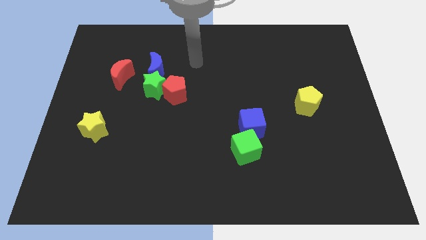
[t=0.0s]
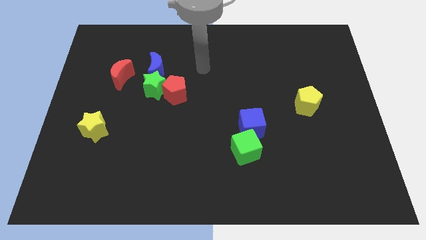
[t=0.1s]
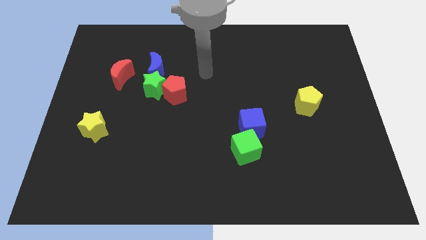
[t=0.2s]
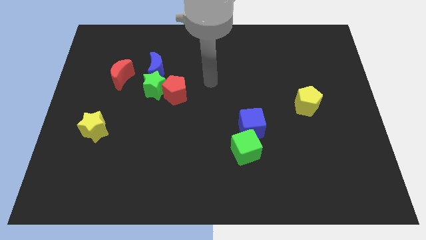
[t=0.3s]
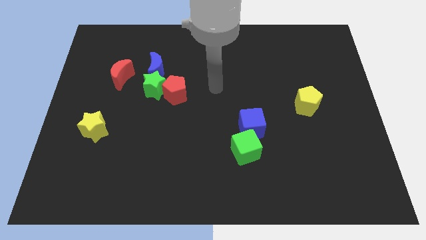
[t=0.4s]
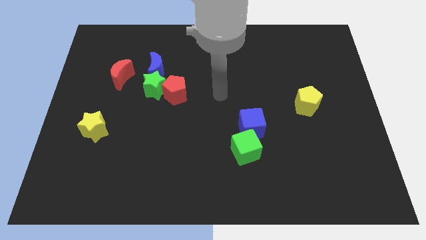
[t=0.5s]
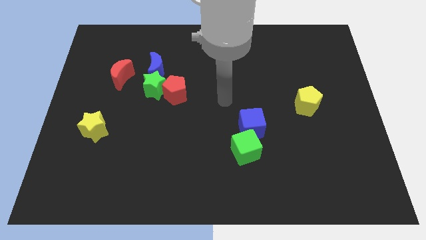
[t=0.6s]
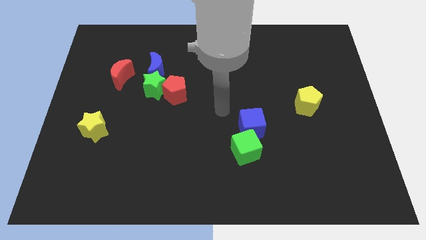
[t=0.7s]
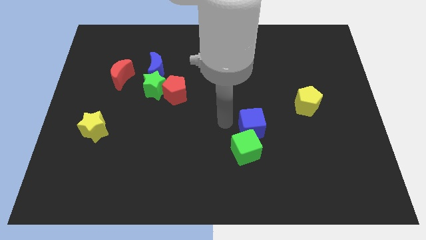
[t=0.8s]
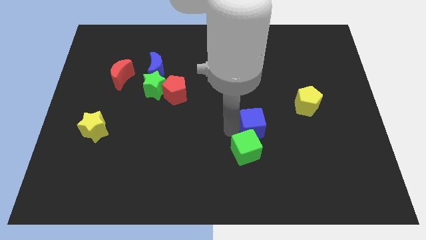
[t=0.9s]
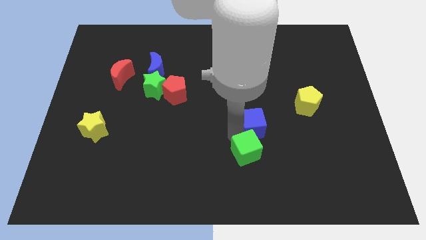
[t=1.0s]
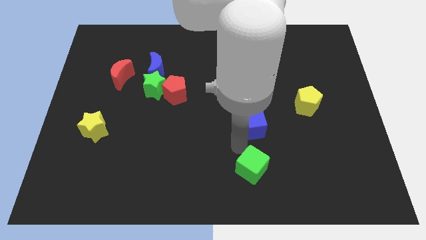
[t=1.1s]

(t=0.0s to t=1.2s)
separate the blue cube from the green cube

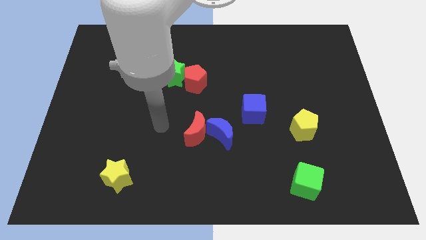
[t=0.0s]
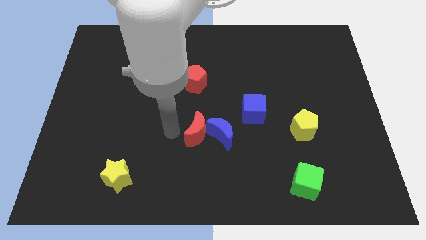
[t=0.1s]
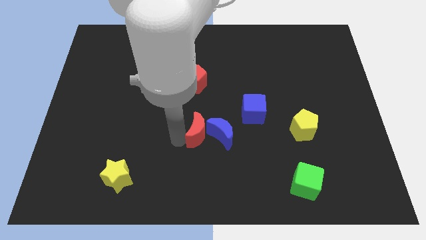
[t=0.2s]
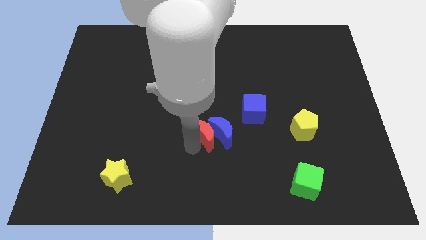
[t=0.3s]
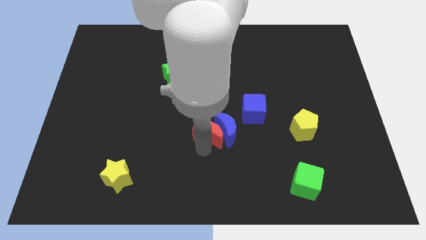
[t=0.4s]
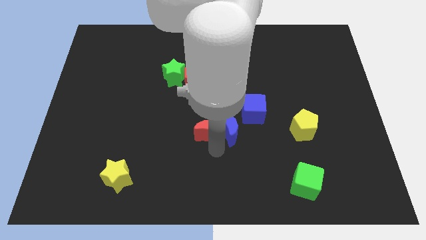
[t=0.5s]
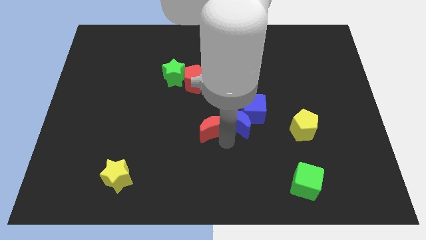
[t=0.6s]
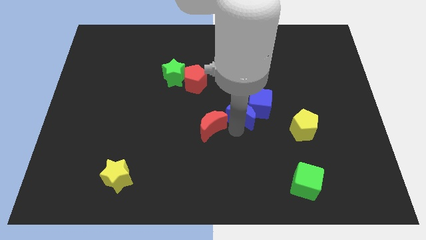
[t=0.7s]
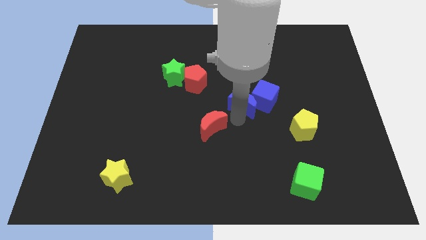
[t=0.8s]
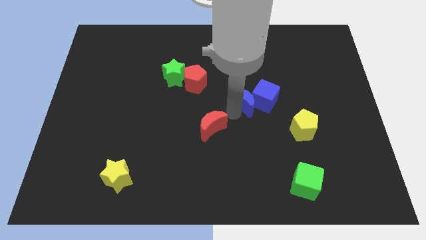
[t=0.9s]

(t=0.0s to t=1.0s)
separate the red moon from the blue moon

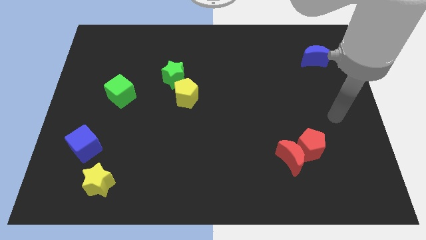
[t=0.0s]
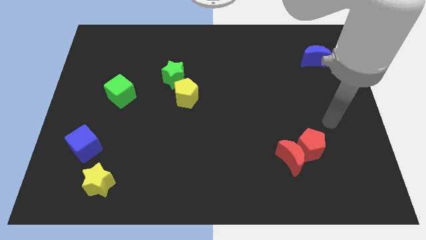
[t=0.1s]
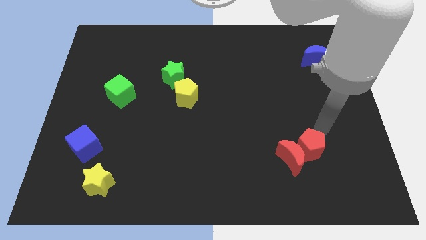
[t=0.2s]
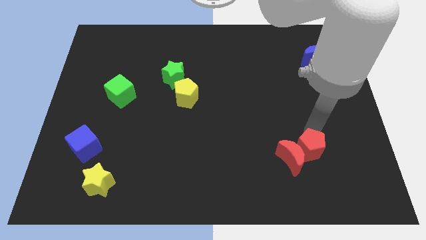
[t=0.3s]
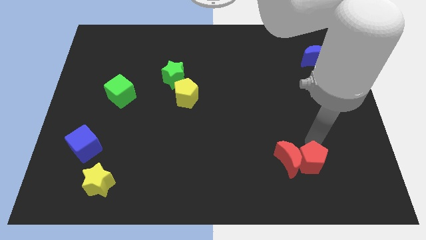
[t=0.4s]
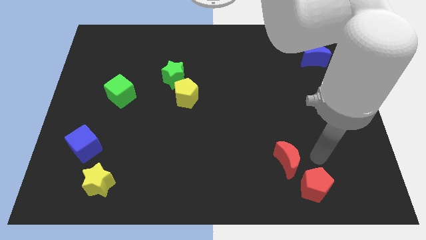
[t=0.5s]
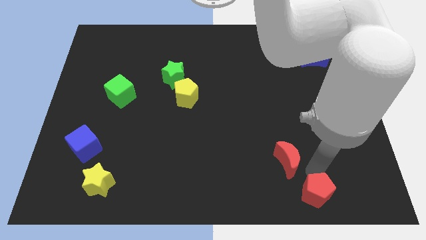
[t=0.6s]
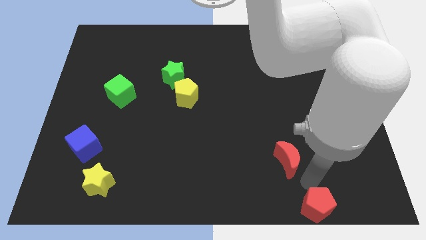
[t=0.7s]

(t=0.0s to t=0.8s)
separate the red moon from the red pentagon

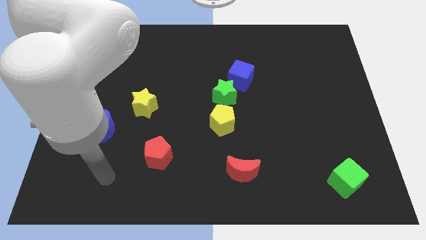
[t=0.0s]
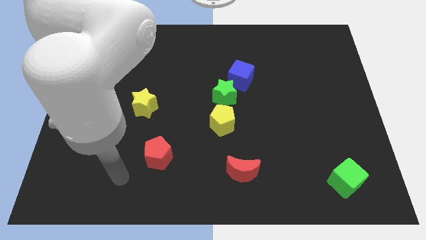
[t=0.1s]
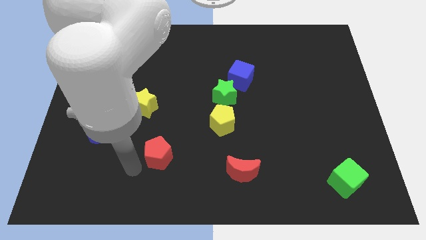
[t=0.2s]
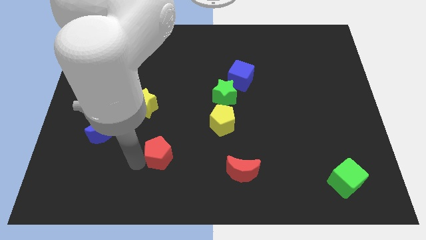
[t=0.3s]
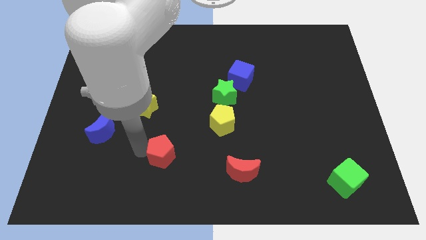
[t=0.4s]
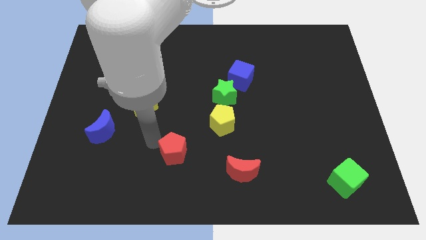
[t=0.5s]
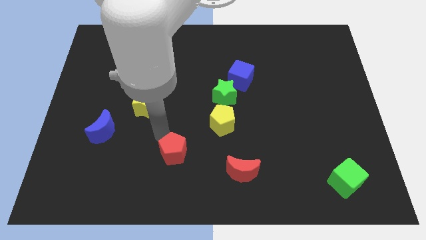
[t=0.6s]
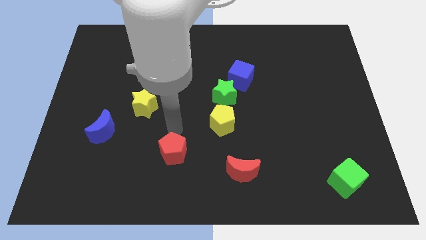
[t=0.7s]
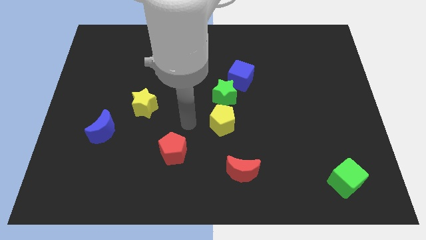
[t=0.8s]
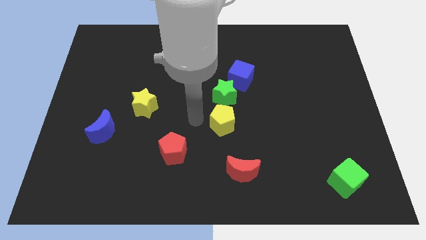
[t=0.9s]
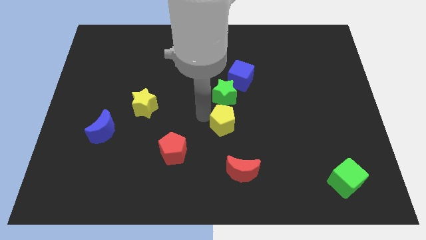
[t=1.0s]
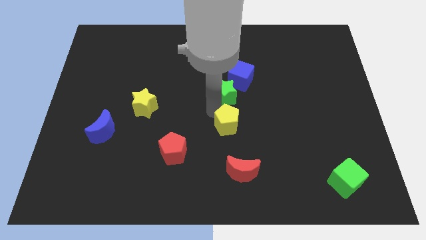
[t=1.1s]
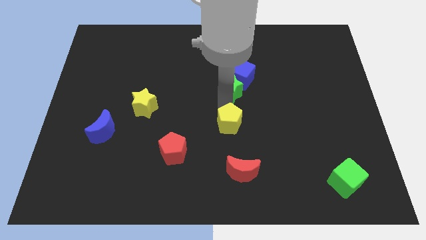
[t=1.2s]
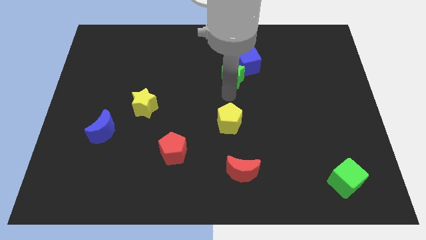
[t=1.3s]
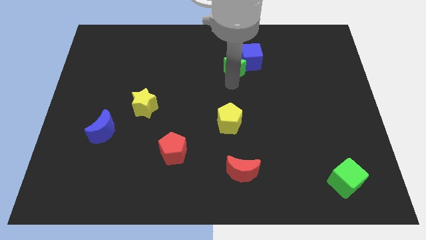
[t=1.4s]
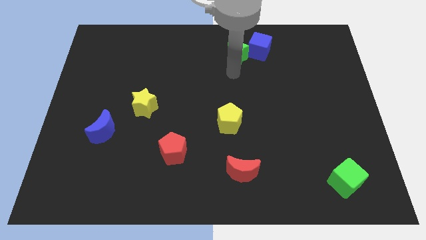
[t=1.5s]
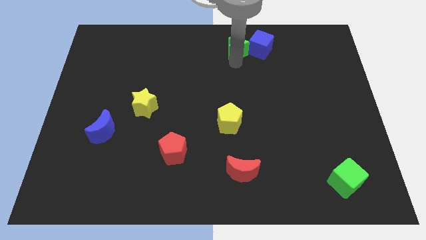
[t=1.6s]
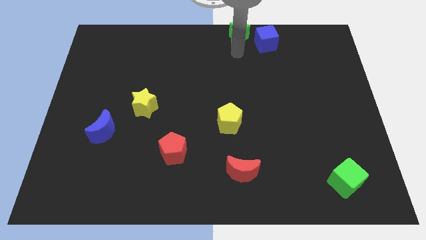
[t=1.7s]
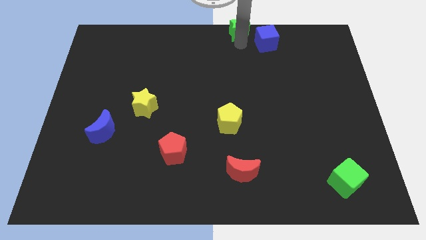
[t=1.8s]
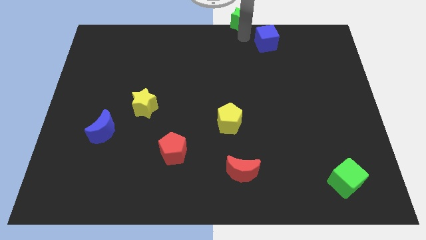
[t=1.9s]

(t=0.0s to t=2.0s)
separate the blue cube from the green star

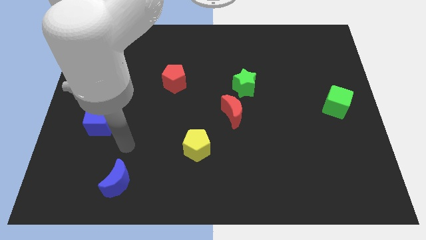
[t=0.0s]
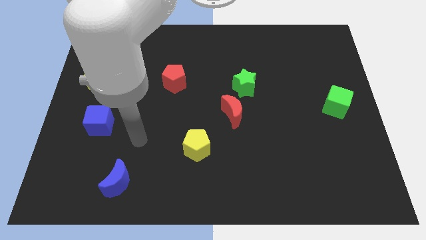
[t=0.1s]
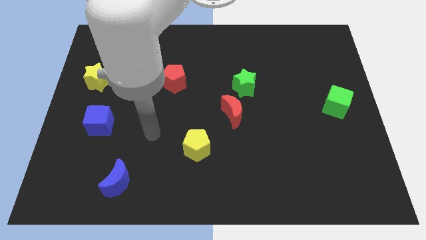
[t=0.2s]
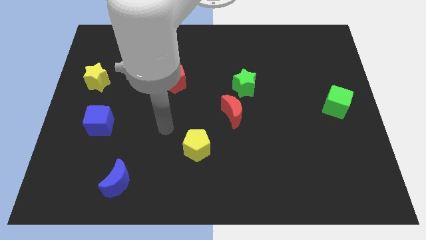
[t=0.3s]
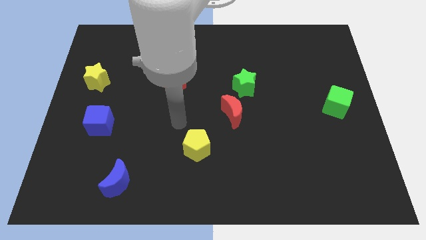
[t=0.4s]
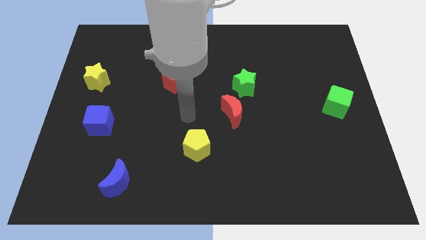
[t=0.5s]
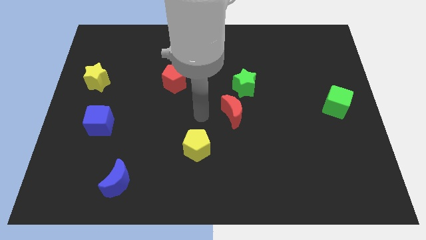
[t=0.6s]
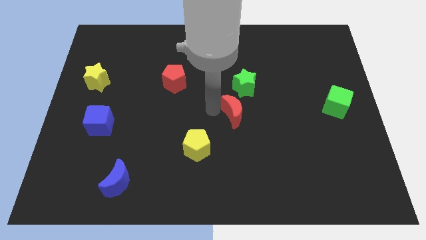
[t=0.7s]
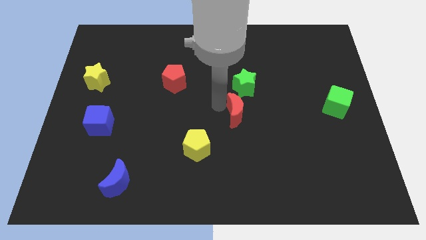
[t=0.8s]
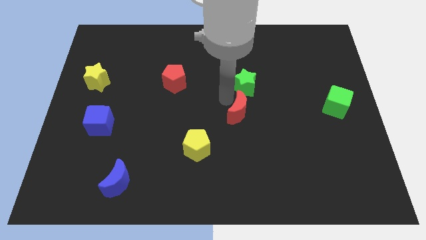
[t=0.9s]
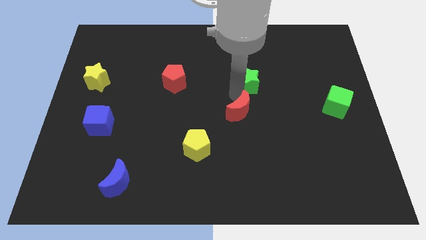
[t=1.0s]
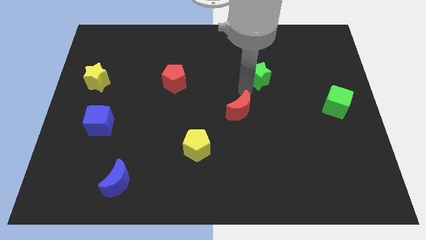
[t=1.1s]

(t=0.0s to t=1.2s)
pull the red moon apart from the green star

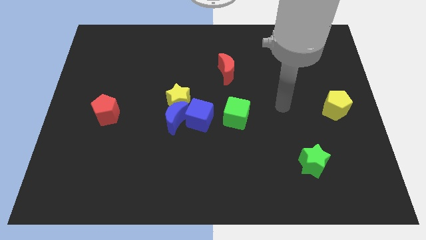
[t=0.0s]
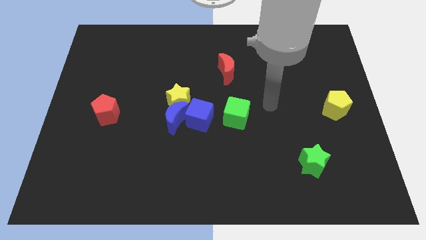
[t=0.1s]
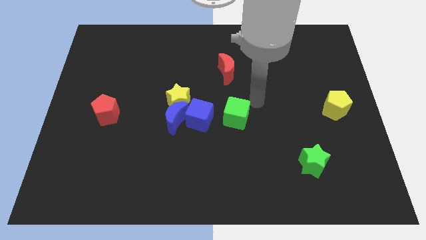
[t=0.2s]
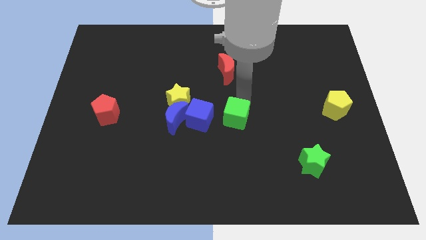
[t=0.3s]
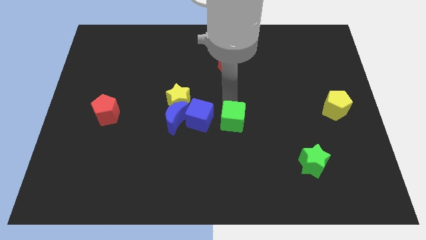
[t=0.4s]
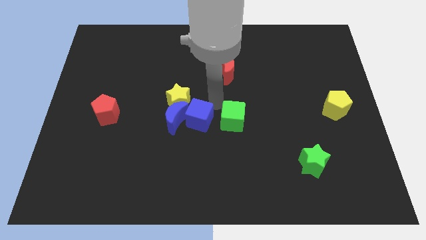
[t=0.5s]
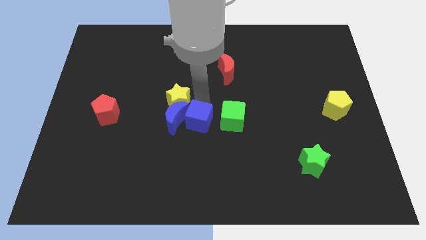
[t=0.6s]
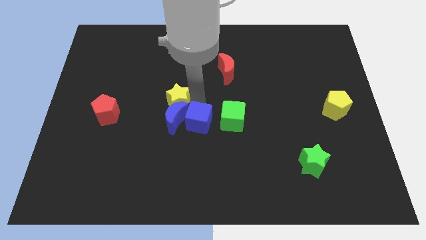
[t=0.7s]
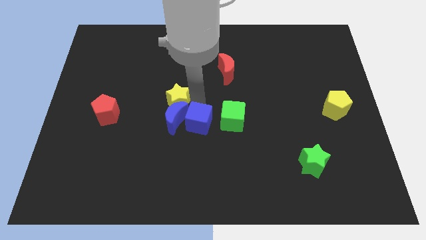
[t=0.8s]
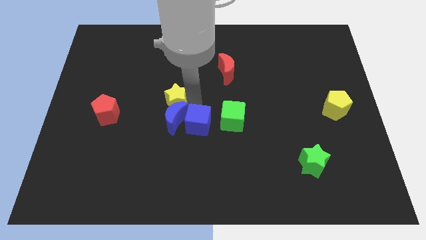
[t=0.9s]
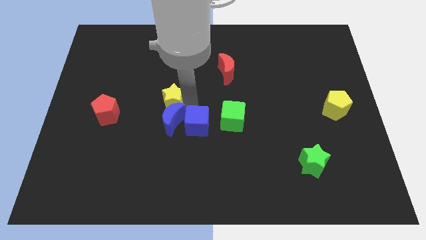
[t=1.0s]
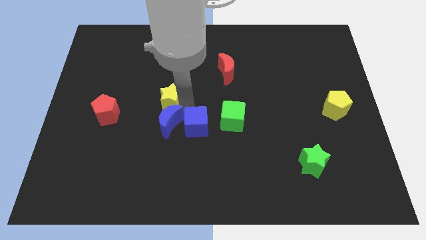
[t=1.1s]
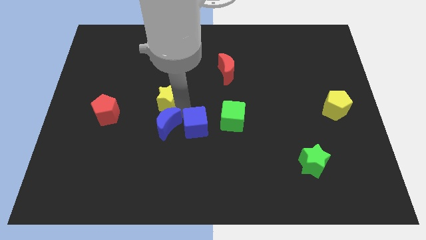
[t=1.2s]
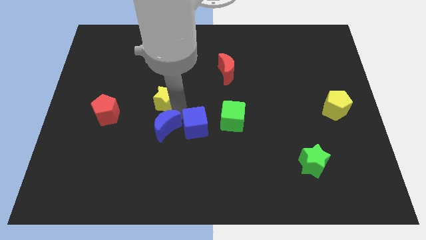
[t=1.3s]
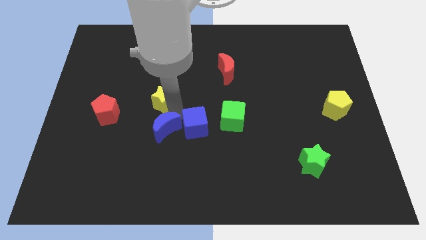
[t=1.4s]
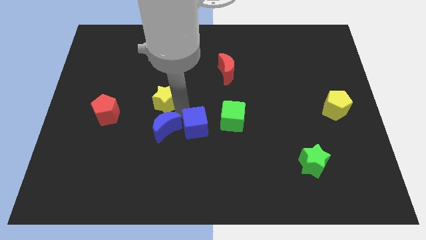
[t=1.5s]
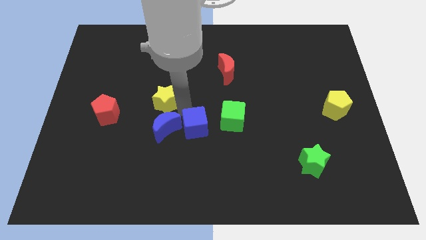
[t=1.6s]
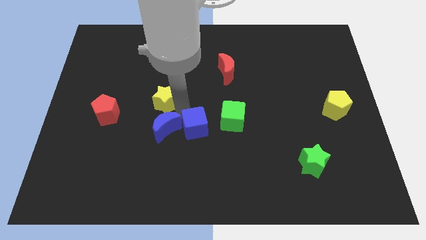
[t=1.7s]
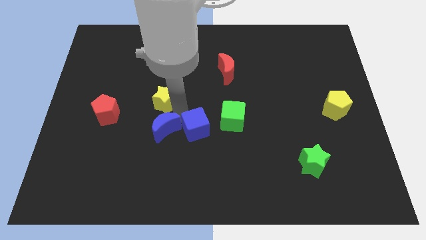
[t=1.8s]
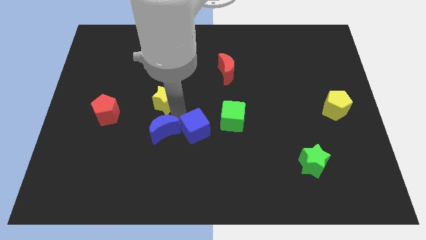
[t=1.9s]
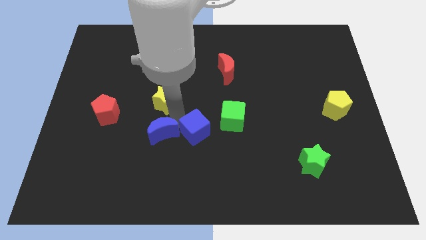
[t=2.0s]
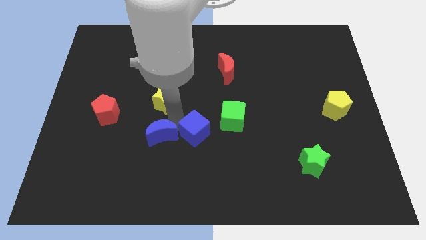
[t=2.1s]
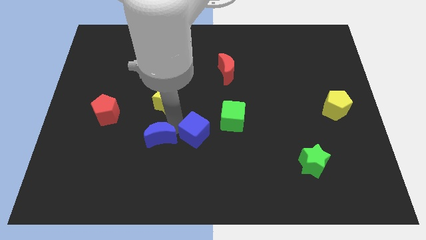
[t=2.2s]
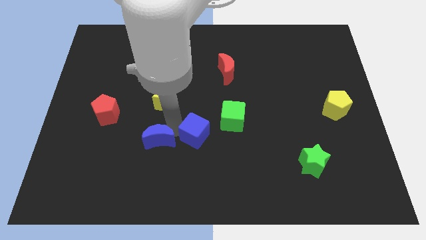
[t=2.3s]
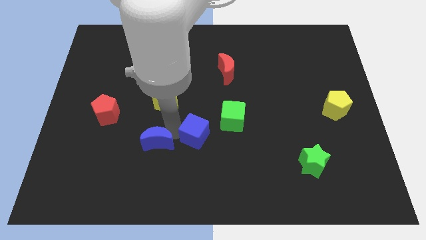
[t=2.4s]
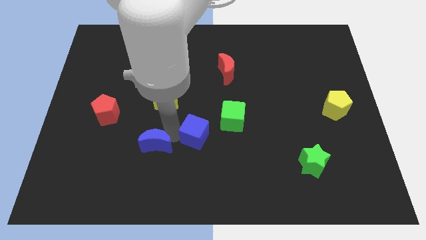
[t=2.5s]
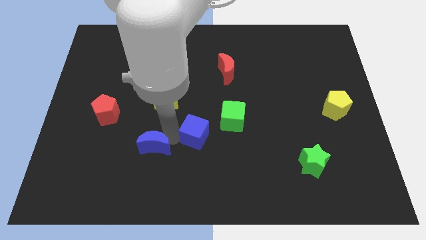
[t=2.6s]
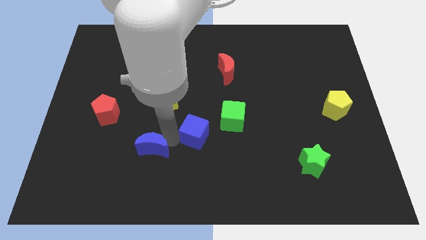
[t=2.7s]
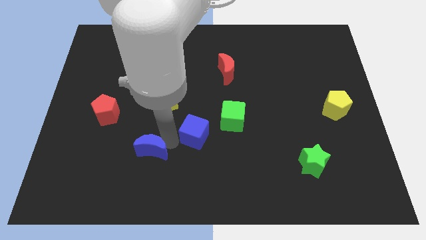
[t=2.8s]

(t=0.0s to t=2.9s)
pull the blue moon apart from the yellow star and blue cube

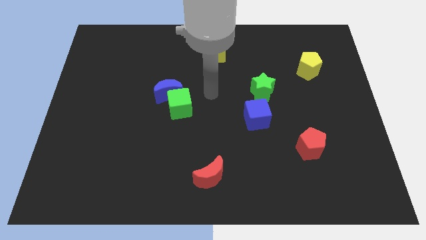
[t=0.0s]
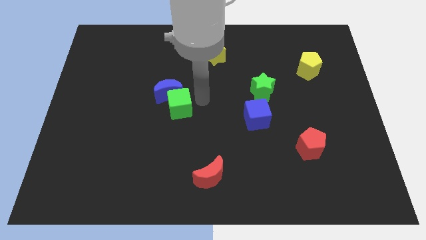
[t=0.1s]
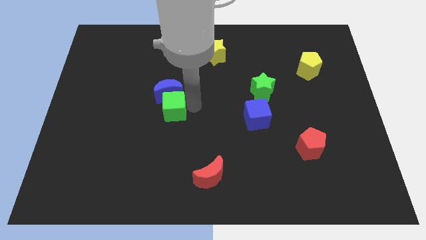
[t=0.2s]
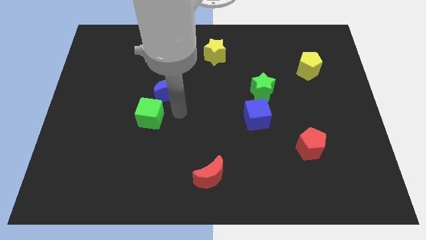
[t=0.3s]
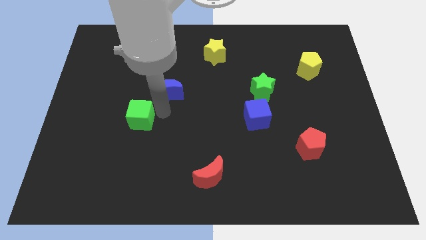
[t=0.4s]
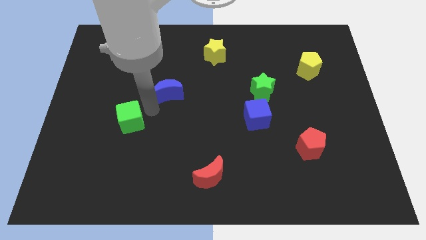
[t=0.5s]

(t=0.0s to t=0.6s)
pull the blue moon apart from the green cube
